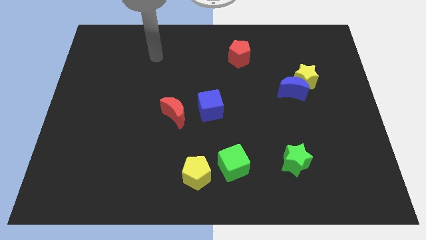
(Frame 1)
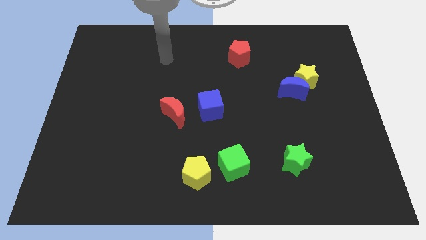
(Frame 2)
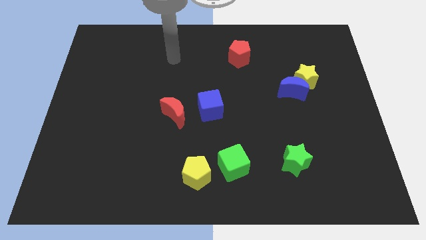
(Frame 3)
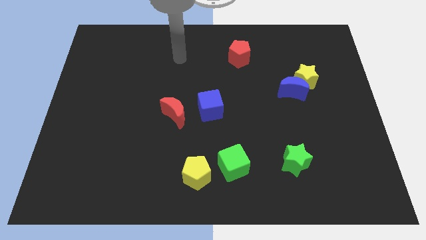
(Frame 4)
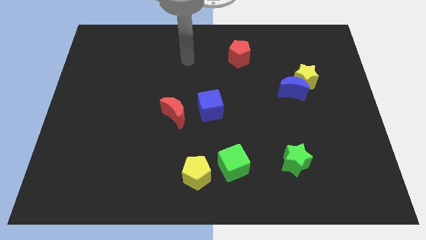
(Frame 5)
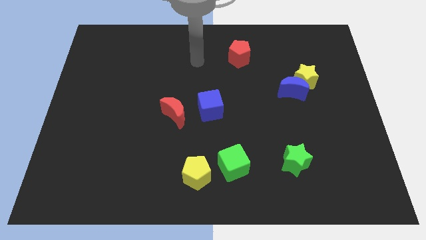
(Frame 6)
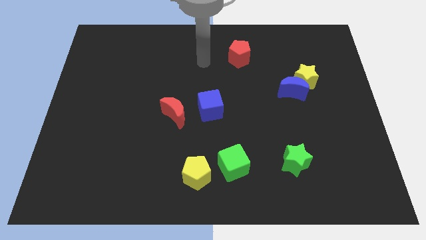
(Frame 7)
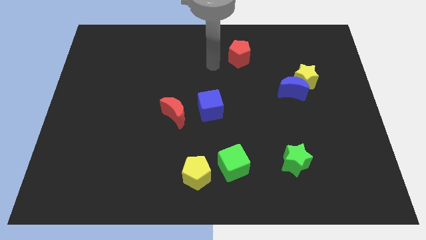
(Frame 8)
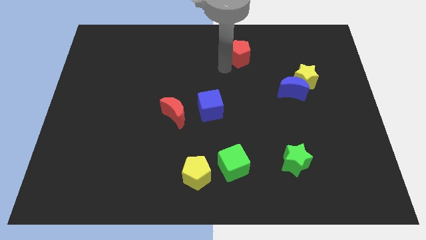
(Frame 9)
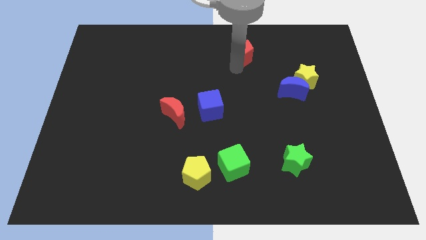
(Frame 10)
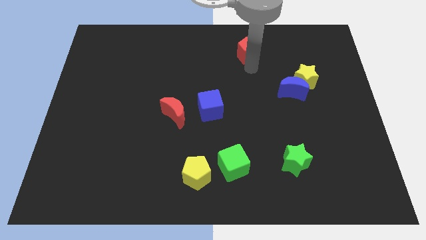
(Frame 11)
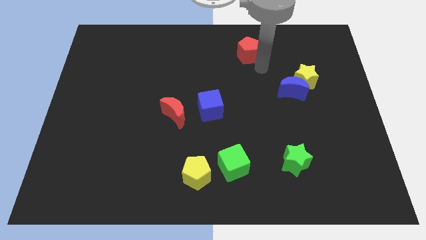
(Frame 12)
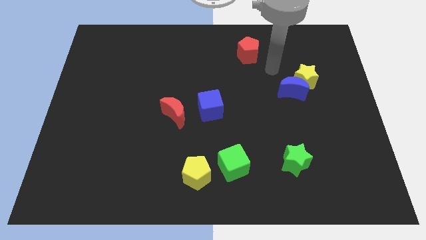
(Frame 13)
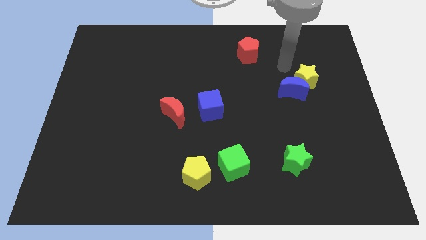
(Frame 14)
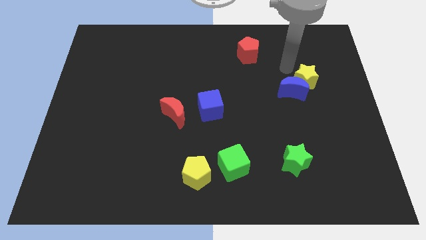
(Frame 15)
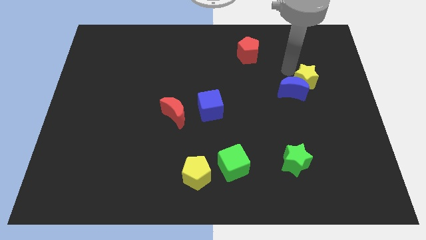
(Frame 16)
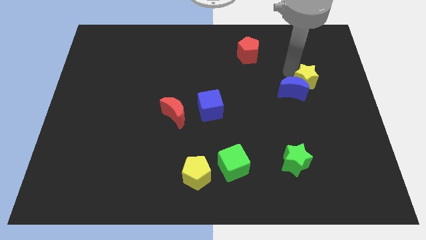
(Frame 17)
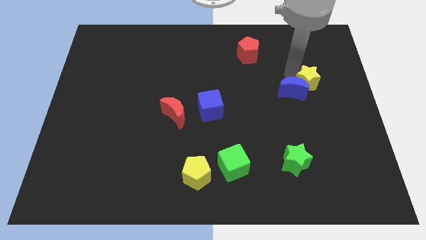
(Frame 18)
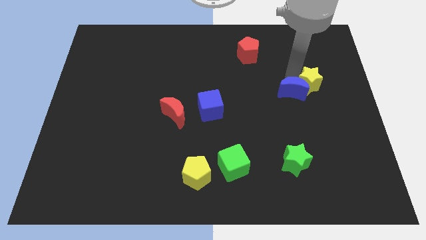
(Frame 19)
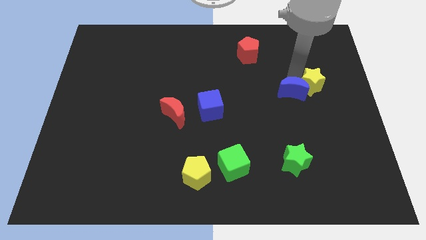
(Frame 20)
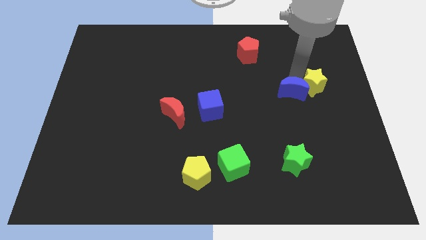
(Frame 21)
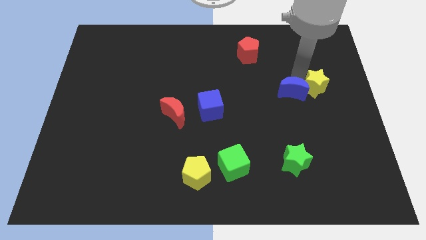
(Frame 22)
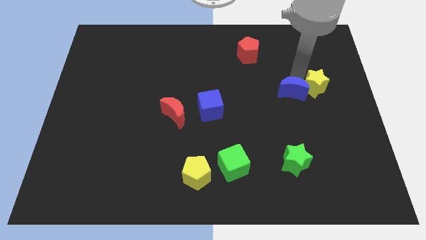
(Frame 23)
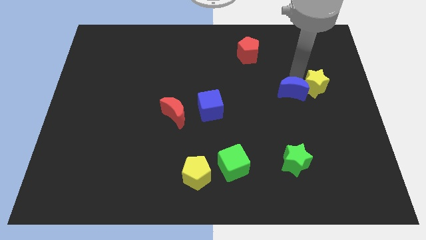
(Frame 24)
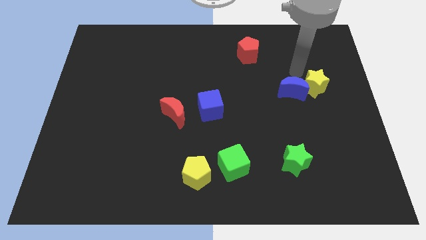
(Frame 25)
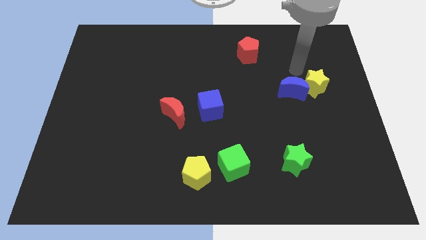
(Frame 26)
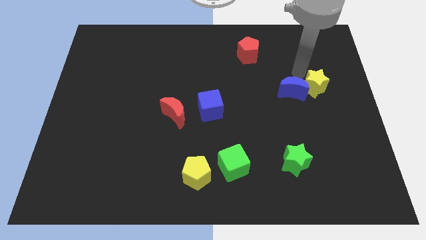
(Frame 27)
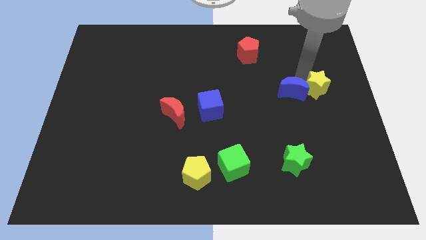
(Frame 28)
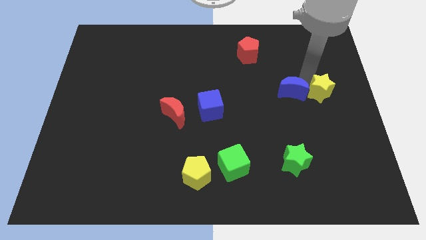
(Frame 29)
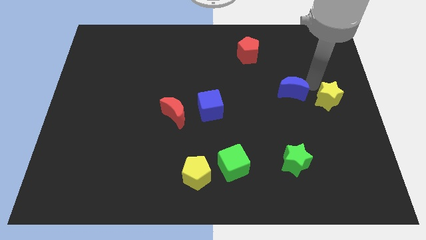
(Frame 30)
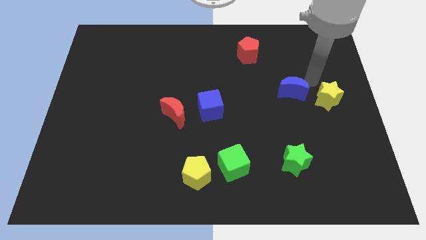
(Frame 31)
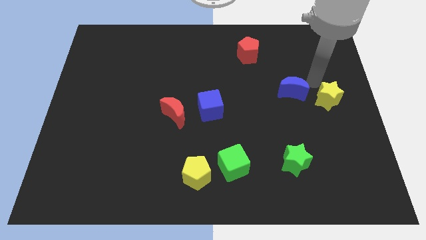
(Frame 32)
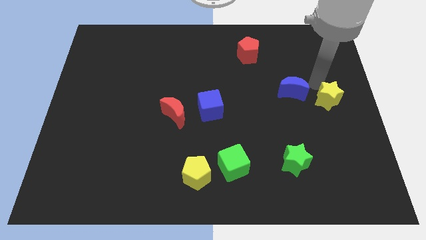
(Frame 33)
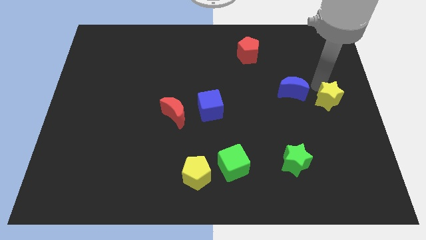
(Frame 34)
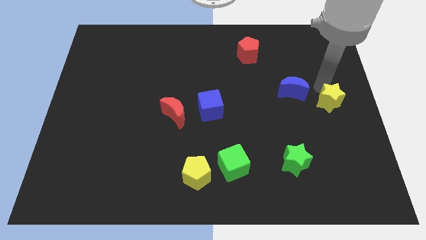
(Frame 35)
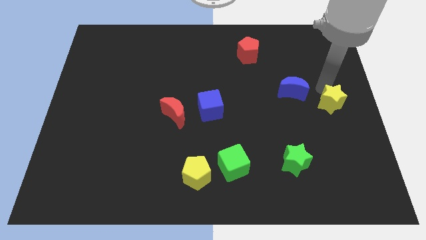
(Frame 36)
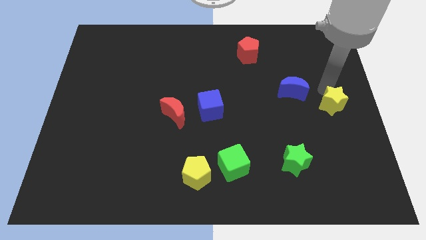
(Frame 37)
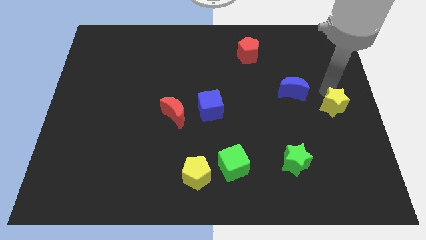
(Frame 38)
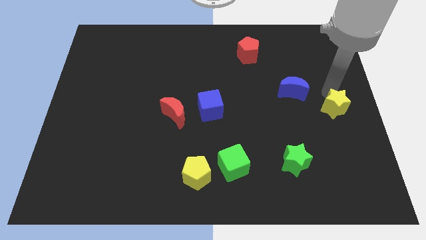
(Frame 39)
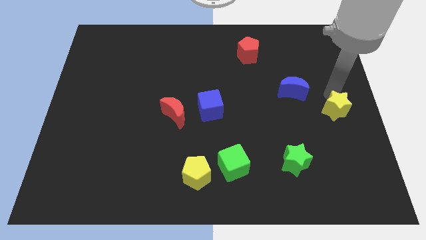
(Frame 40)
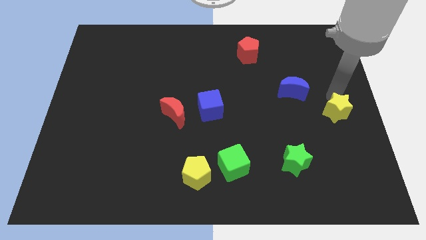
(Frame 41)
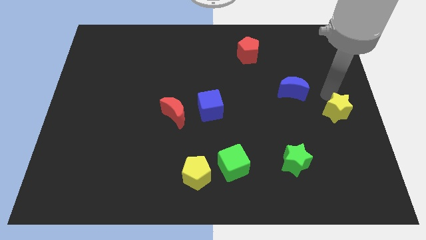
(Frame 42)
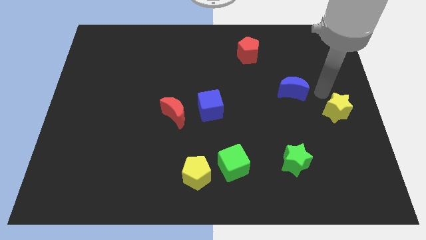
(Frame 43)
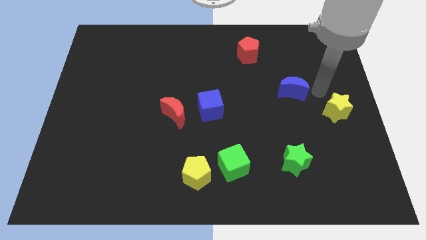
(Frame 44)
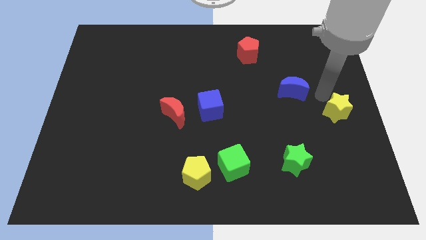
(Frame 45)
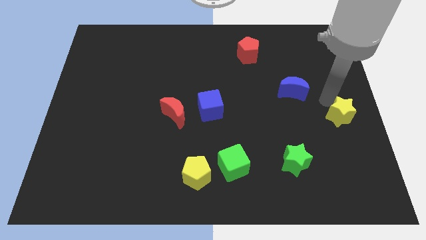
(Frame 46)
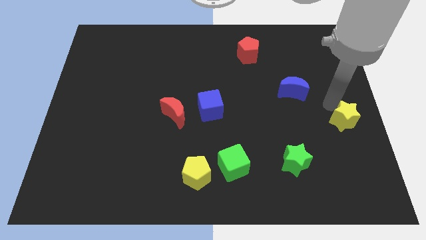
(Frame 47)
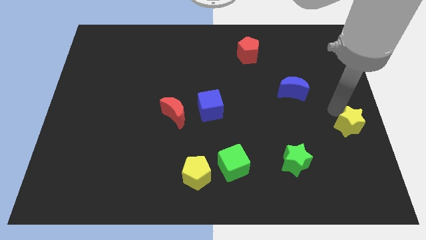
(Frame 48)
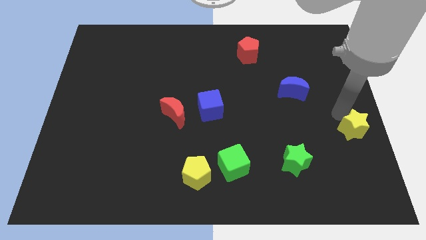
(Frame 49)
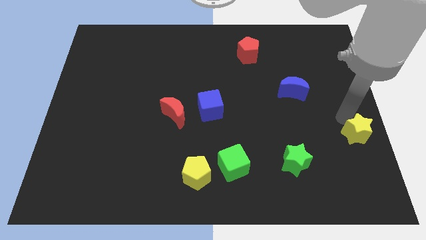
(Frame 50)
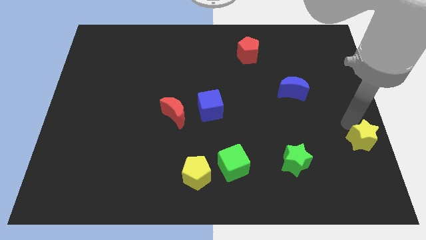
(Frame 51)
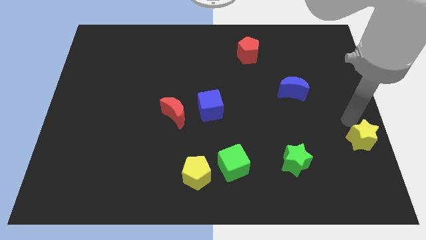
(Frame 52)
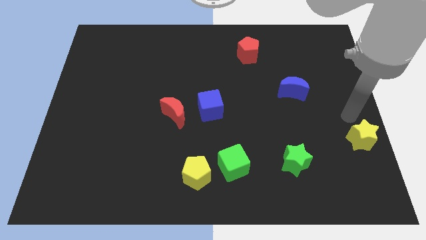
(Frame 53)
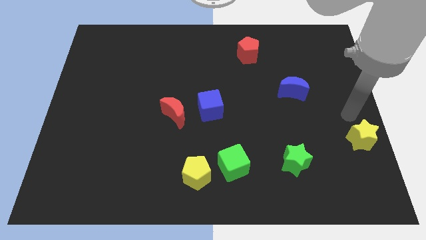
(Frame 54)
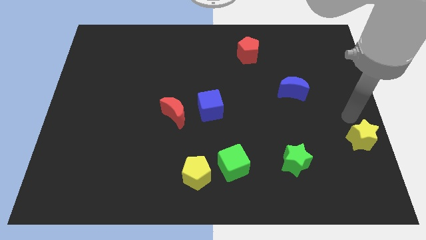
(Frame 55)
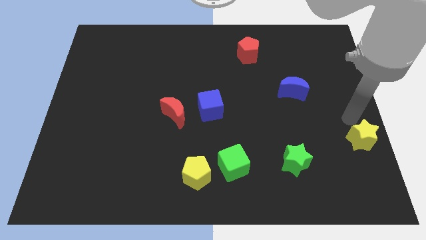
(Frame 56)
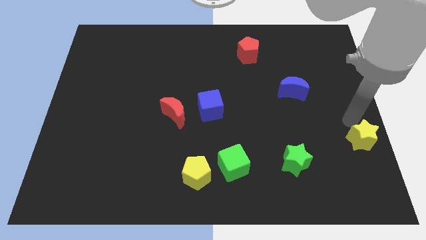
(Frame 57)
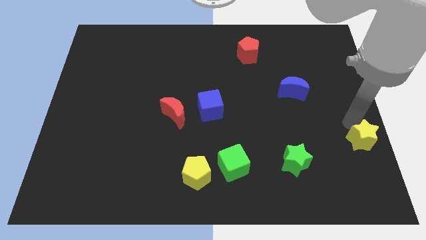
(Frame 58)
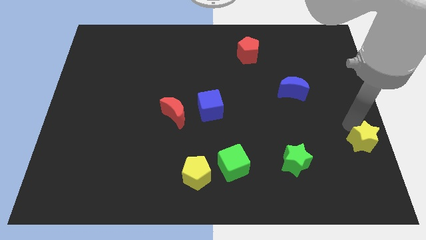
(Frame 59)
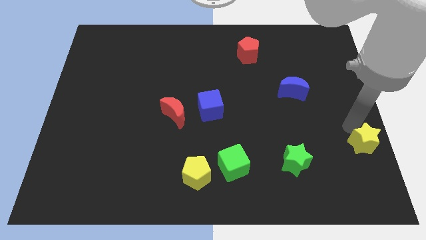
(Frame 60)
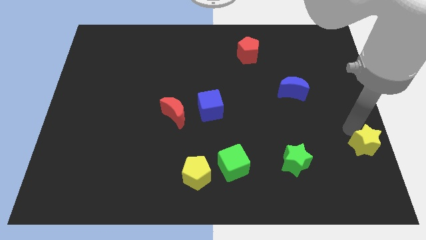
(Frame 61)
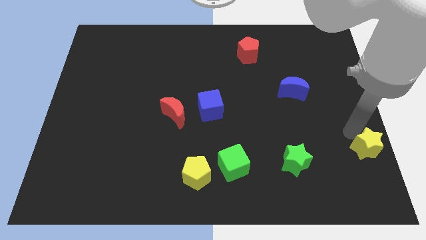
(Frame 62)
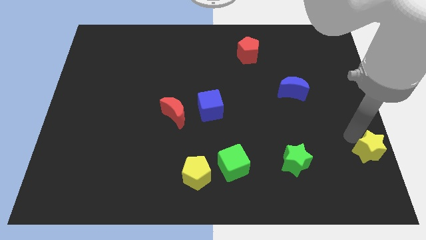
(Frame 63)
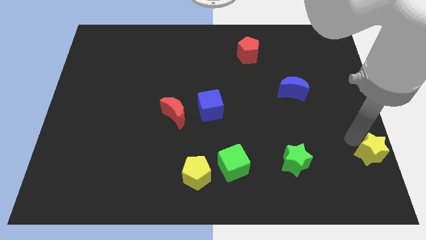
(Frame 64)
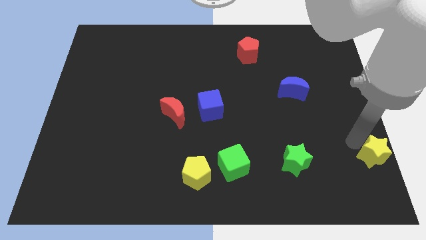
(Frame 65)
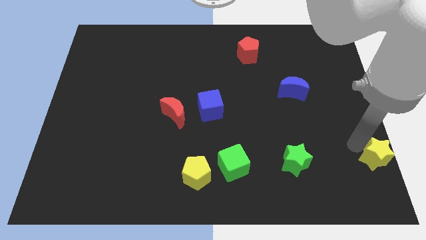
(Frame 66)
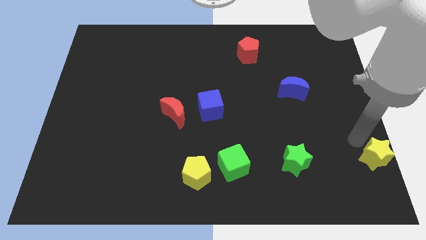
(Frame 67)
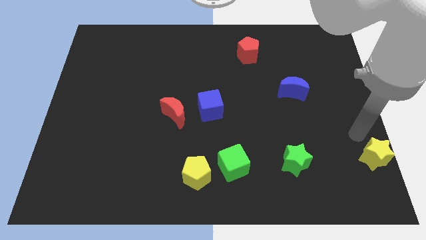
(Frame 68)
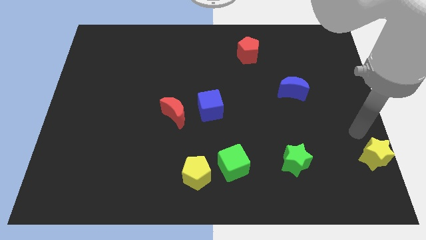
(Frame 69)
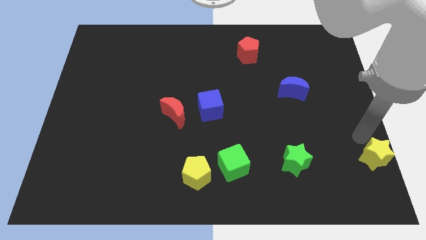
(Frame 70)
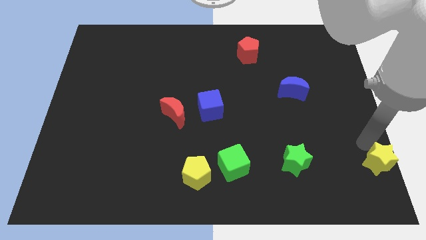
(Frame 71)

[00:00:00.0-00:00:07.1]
move the yellow star to the lower right corner
